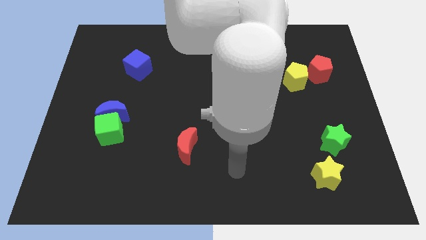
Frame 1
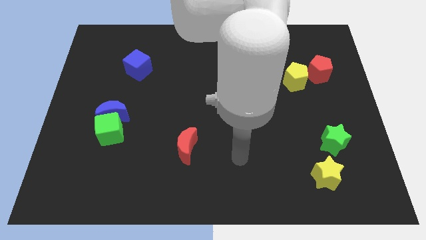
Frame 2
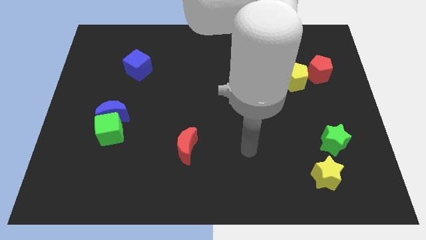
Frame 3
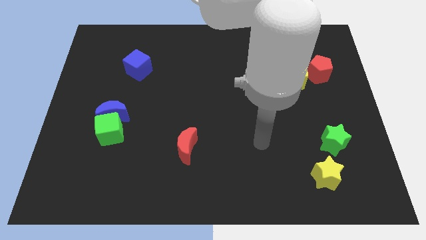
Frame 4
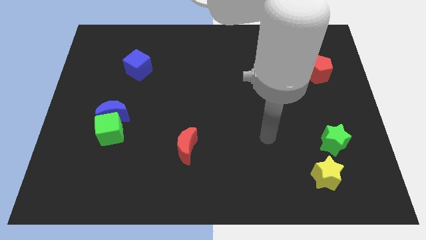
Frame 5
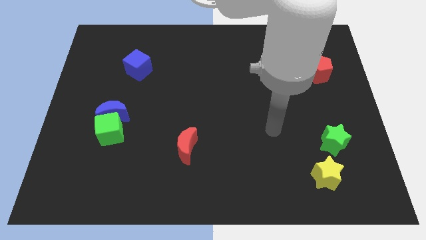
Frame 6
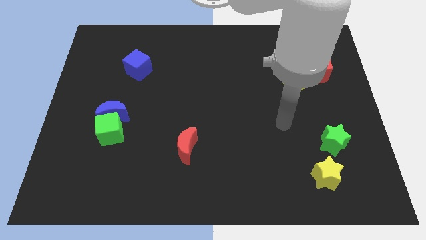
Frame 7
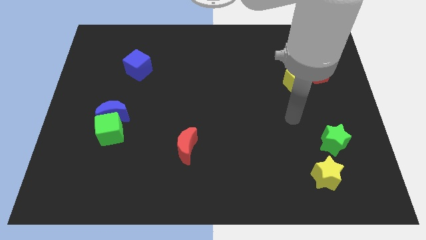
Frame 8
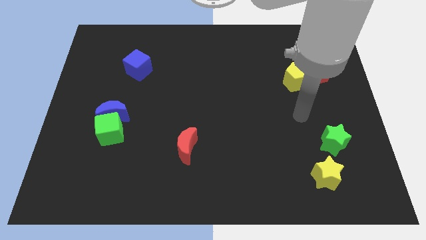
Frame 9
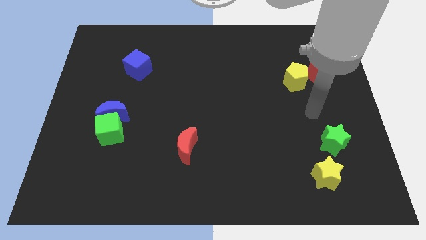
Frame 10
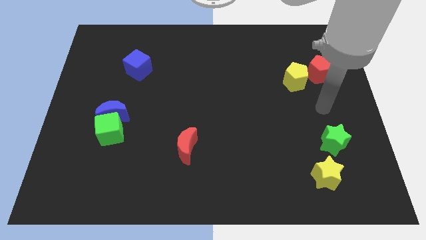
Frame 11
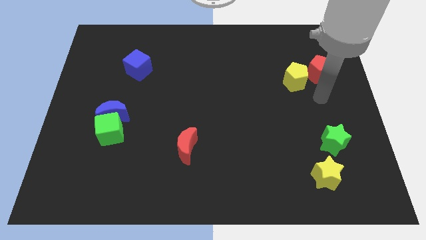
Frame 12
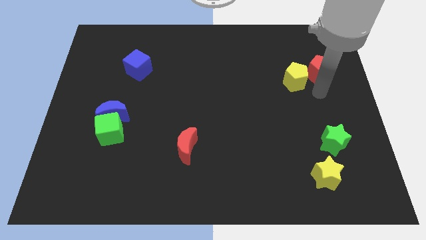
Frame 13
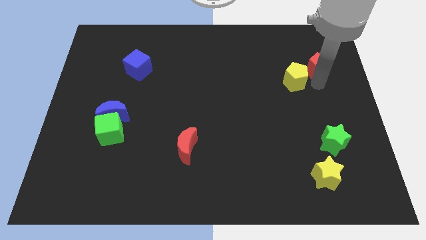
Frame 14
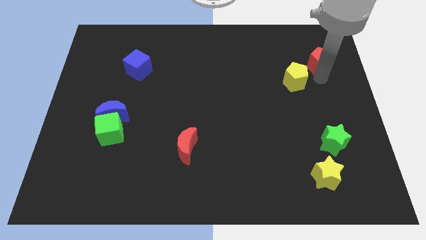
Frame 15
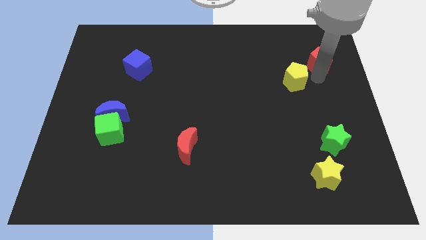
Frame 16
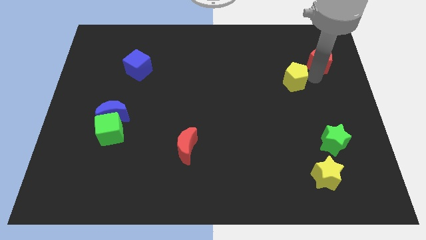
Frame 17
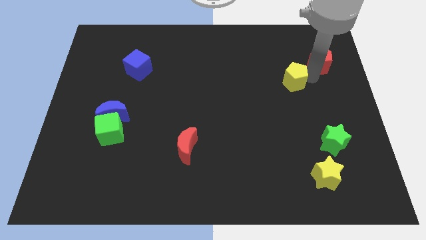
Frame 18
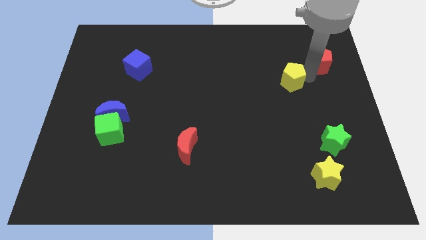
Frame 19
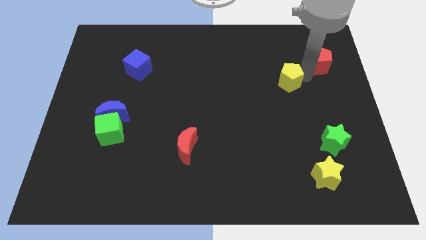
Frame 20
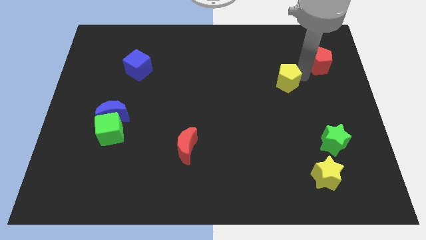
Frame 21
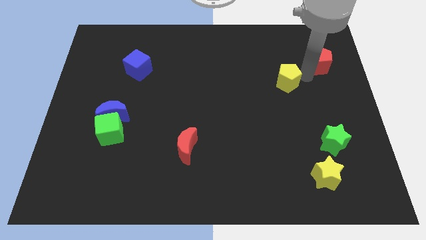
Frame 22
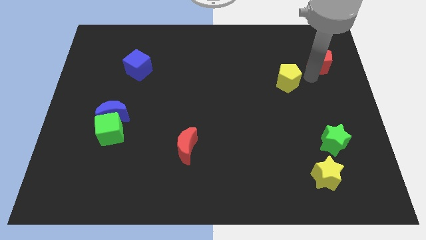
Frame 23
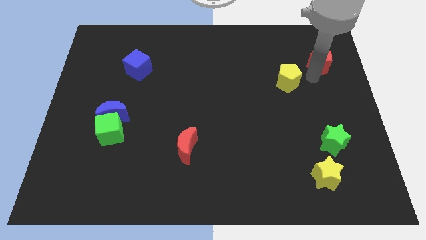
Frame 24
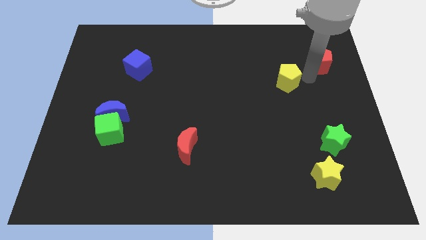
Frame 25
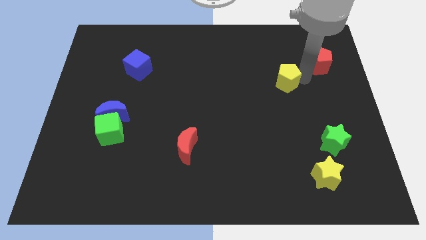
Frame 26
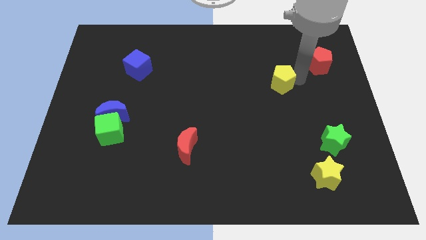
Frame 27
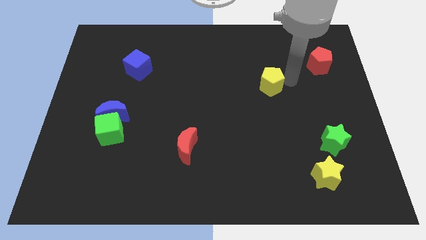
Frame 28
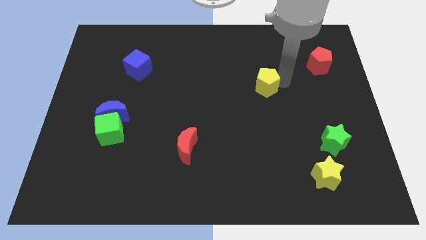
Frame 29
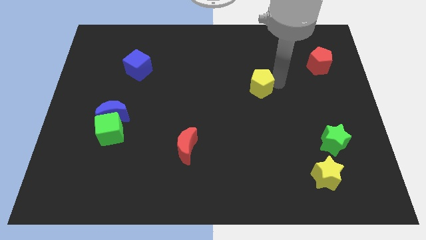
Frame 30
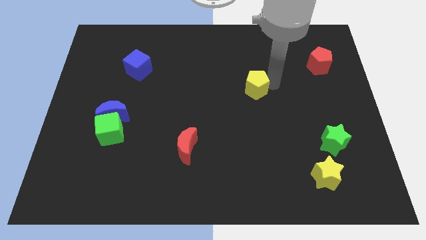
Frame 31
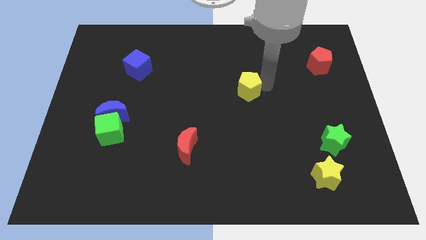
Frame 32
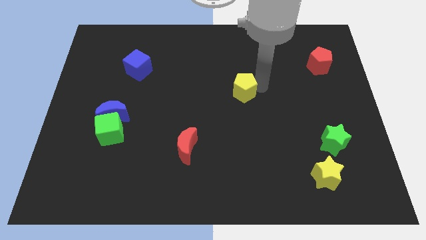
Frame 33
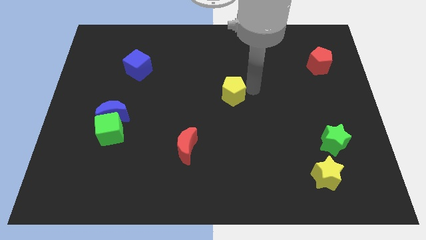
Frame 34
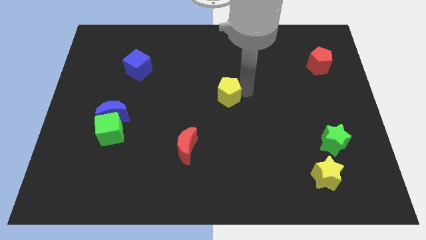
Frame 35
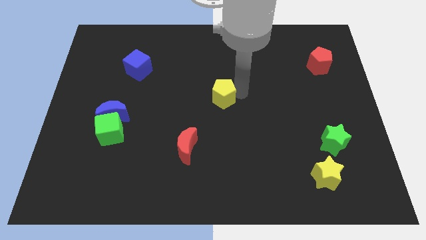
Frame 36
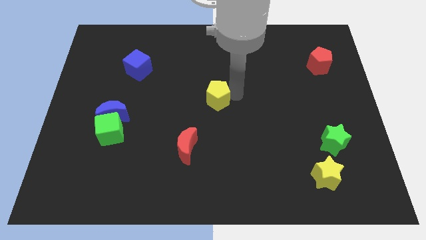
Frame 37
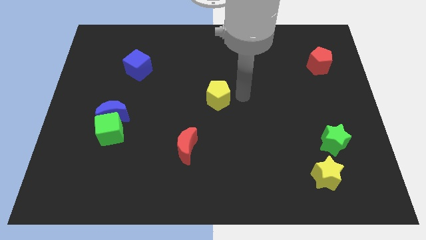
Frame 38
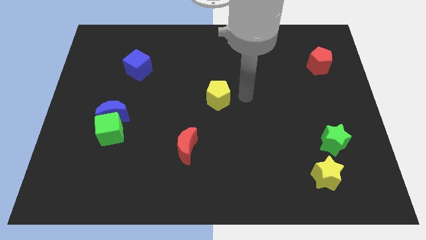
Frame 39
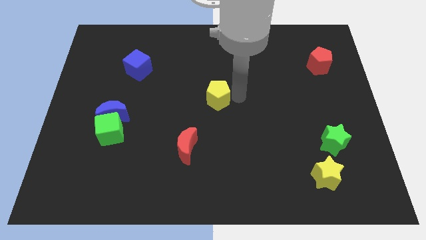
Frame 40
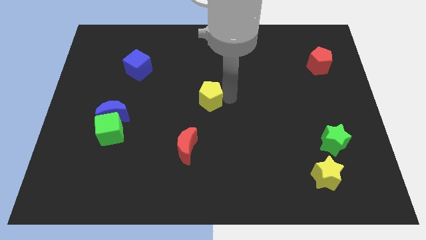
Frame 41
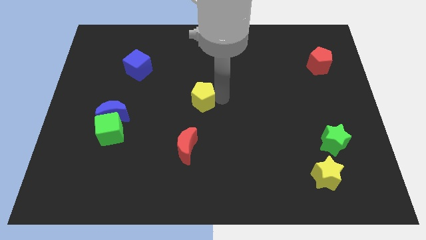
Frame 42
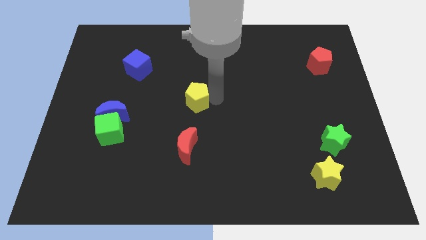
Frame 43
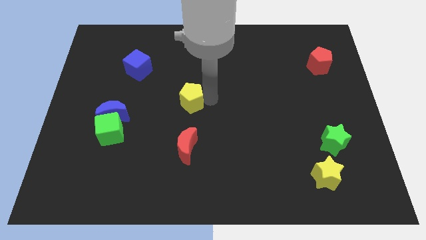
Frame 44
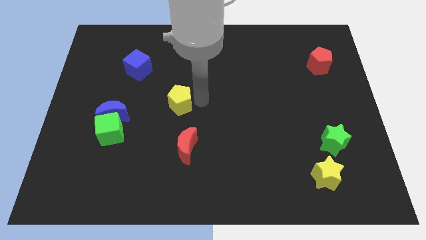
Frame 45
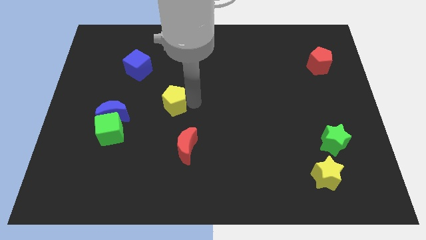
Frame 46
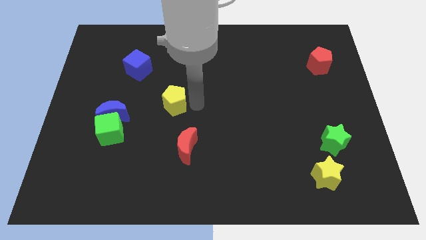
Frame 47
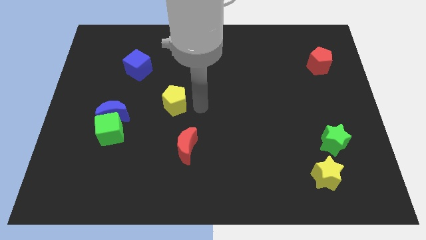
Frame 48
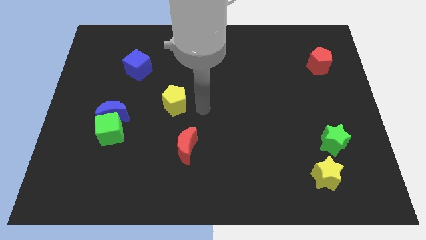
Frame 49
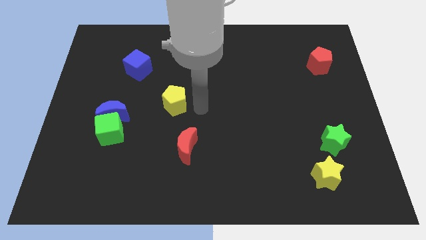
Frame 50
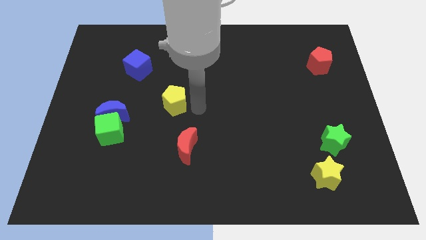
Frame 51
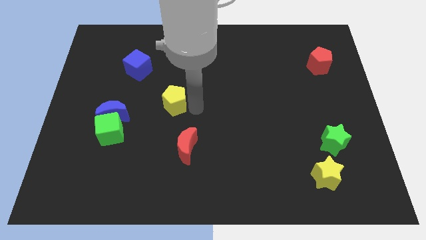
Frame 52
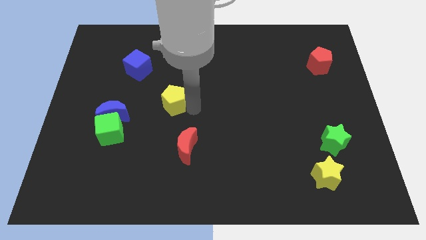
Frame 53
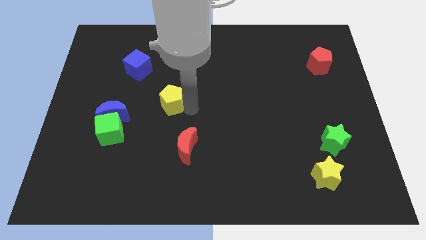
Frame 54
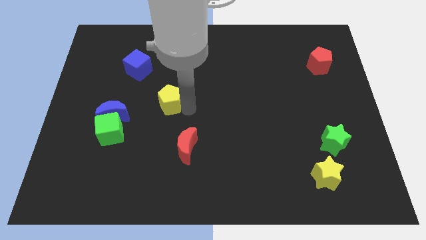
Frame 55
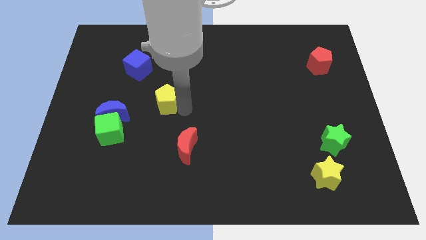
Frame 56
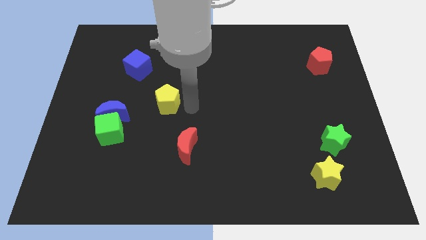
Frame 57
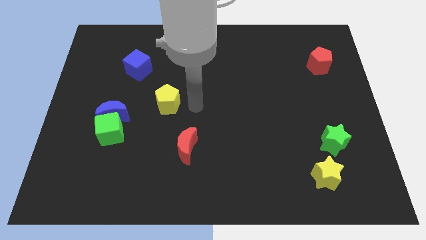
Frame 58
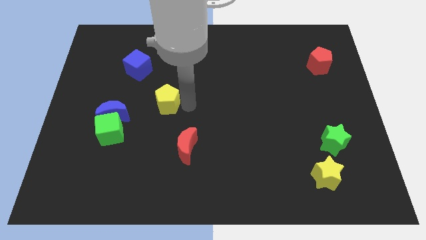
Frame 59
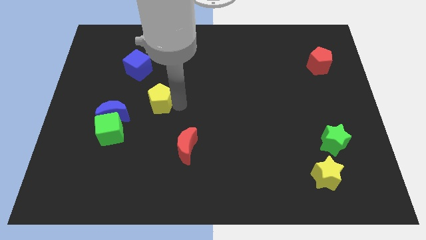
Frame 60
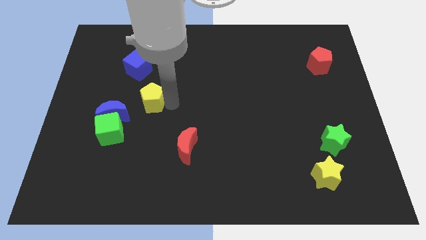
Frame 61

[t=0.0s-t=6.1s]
put the yellow pentagon to the bottom of the blue cube

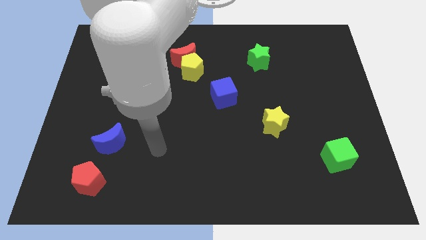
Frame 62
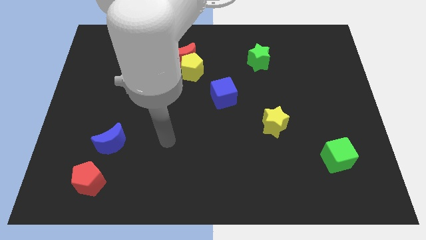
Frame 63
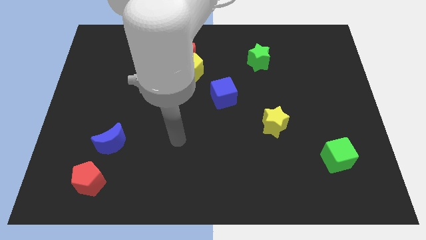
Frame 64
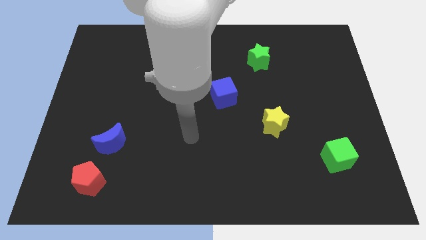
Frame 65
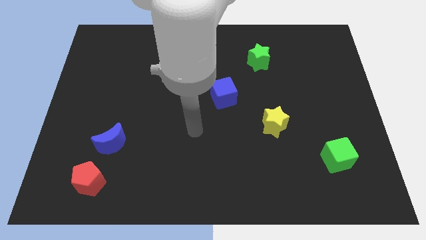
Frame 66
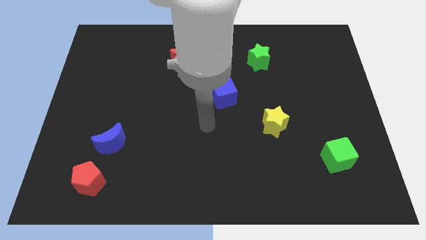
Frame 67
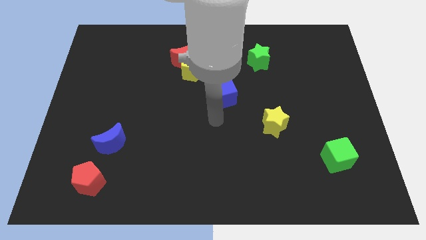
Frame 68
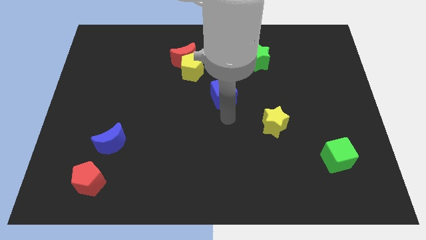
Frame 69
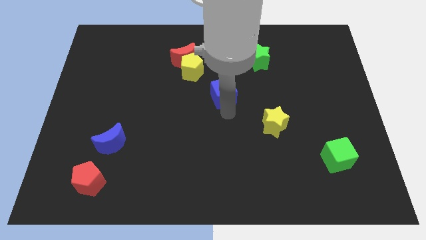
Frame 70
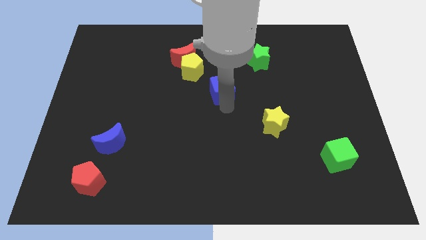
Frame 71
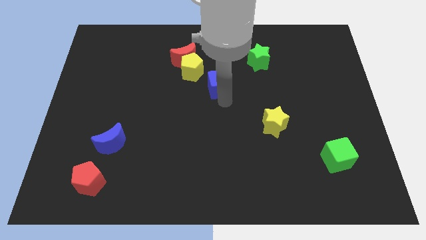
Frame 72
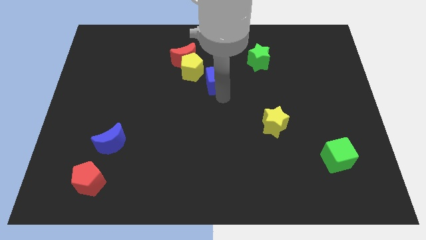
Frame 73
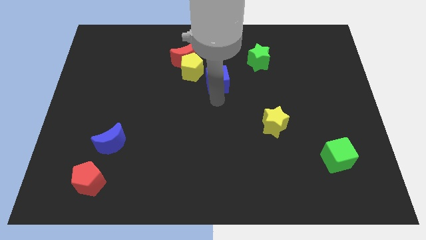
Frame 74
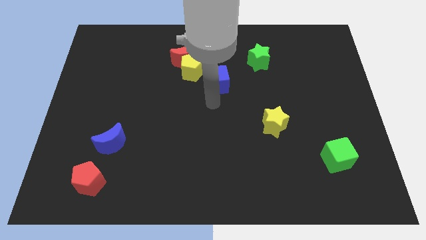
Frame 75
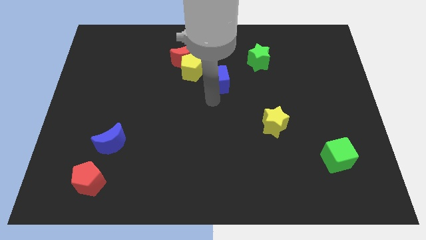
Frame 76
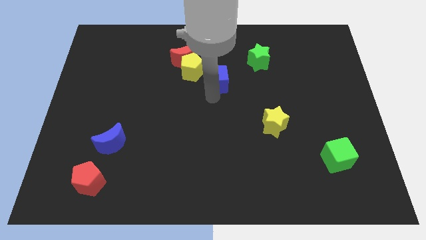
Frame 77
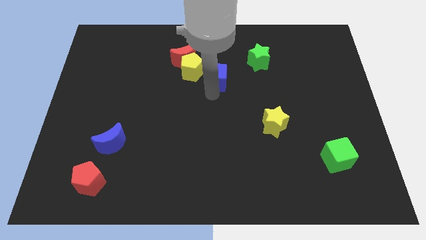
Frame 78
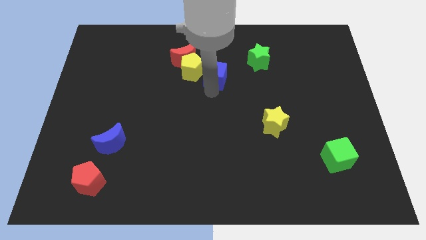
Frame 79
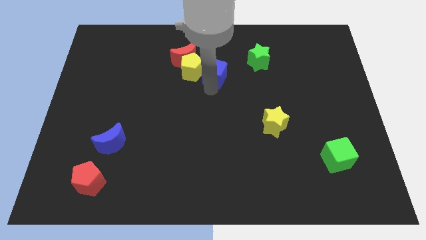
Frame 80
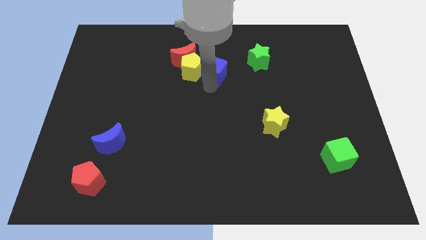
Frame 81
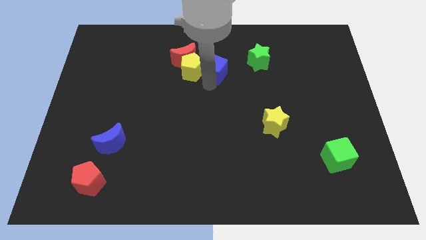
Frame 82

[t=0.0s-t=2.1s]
slide the blue cube just right of the red moon
